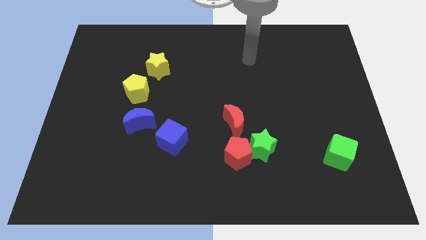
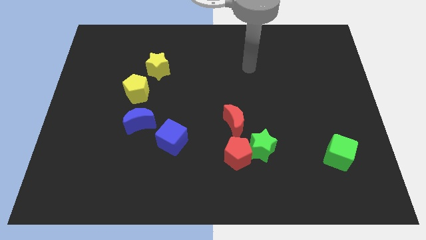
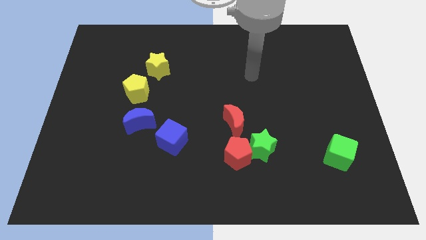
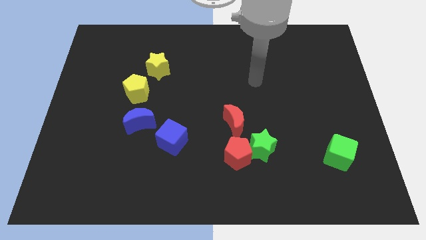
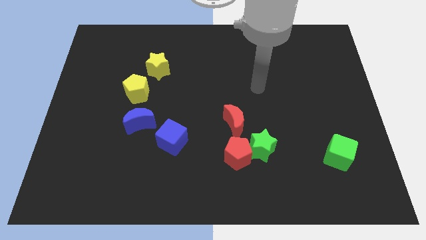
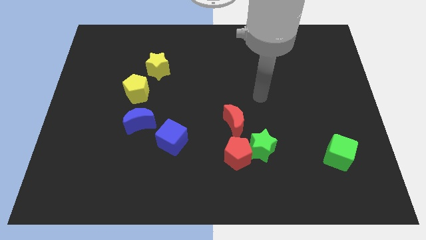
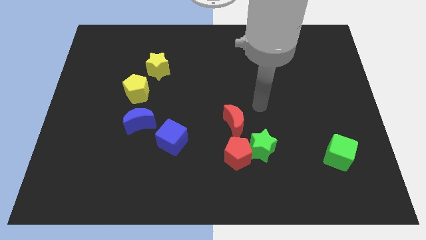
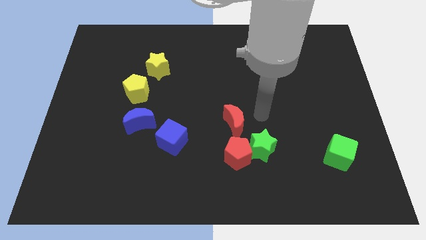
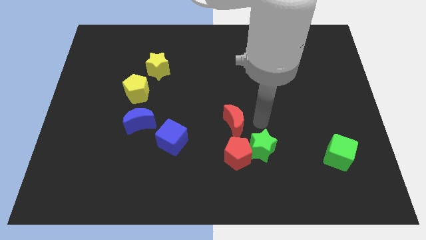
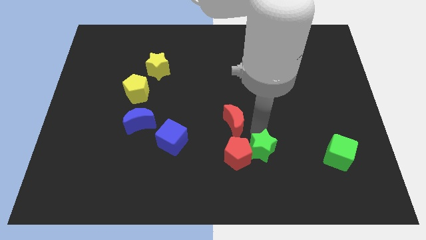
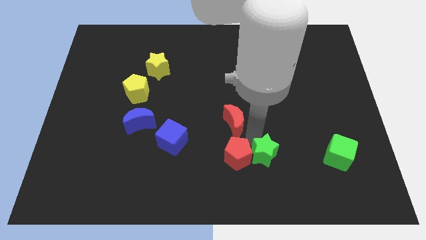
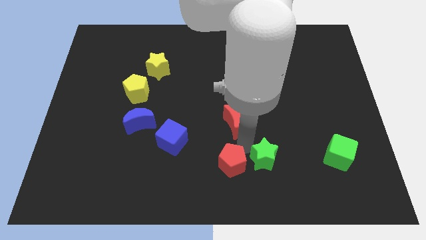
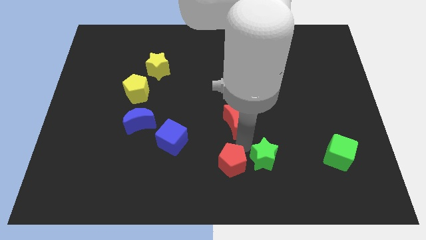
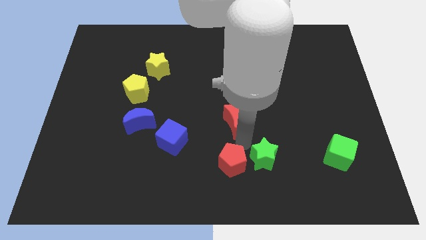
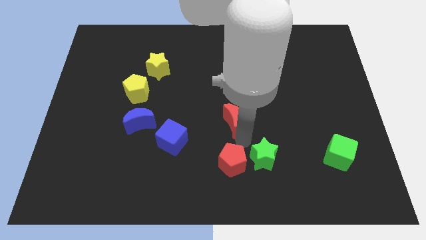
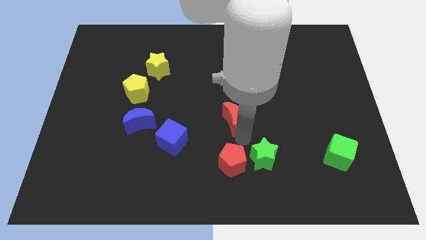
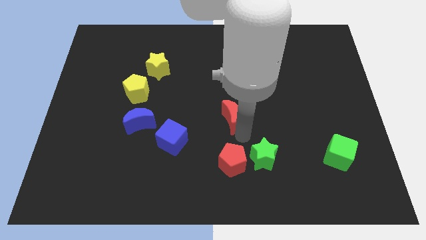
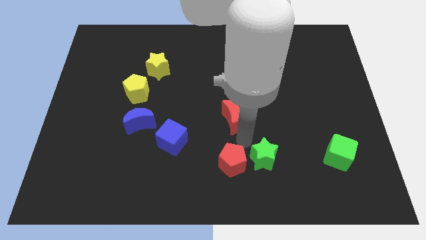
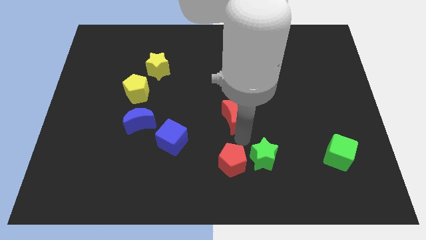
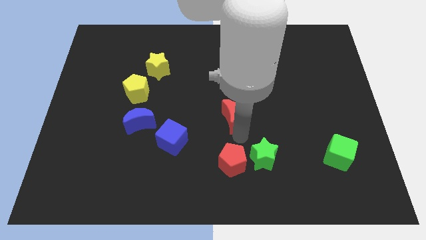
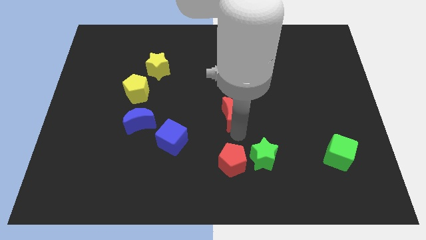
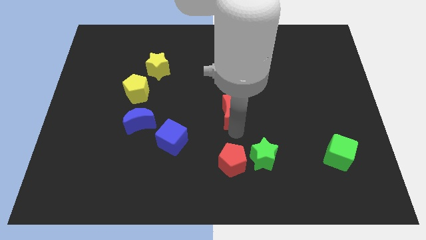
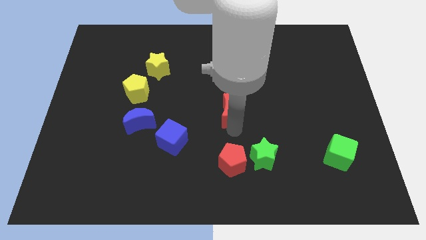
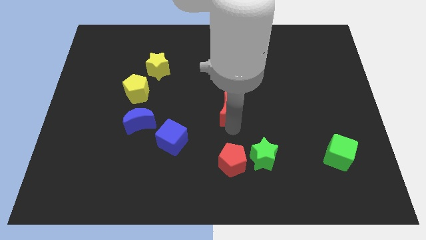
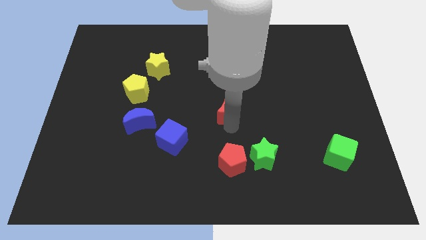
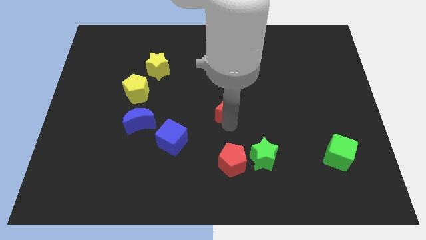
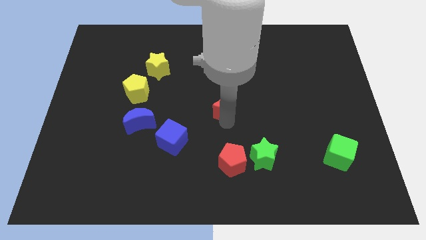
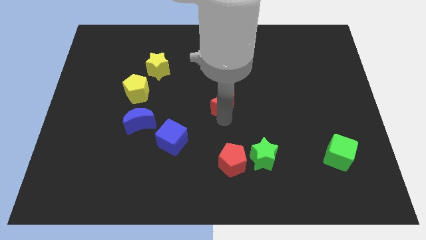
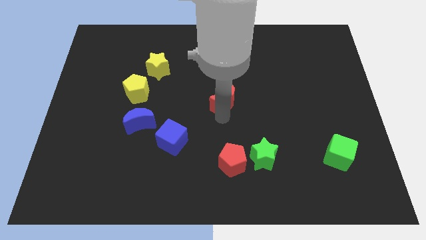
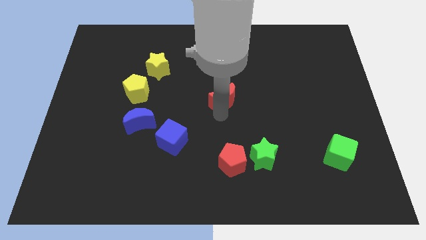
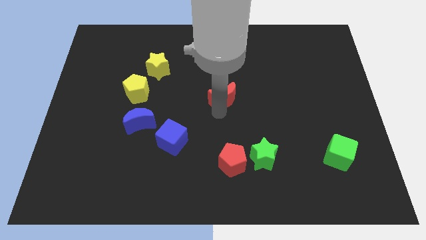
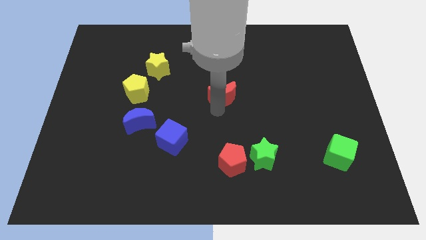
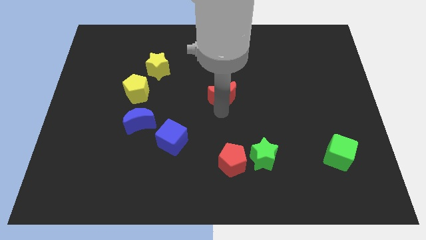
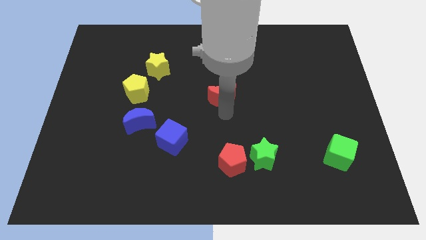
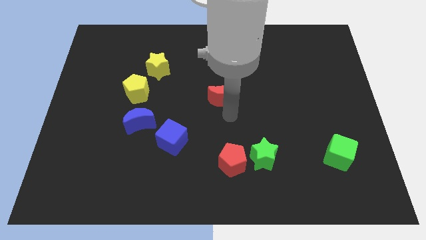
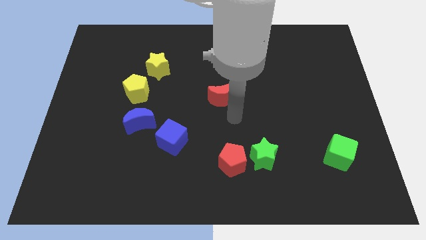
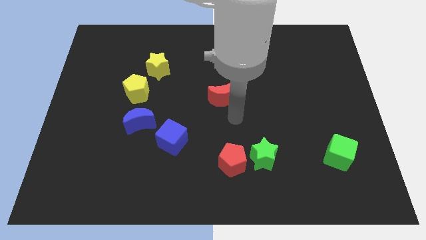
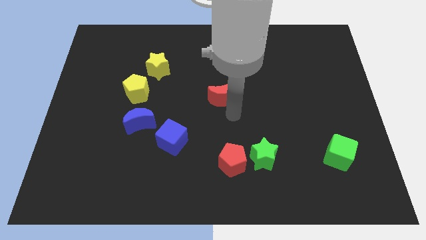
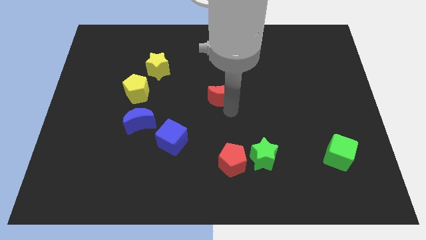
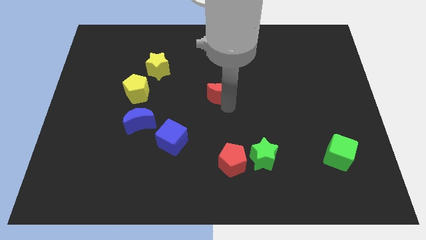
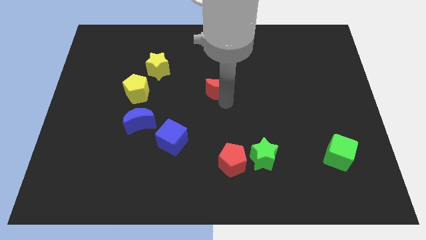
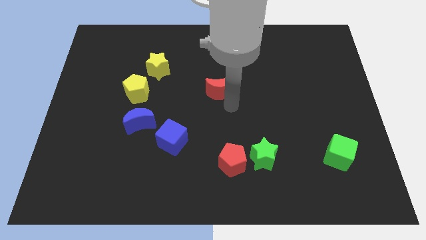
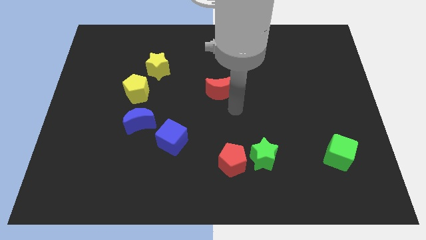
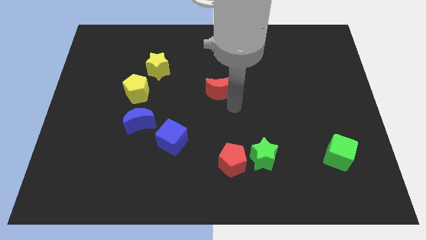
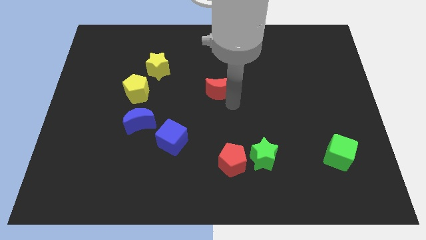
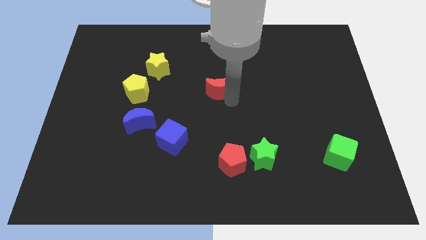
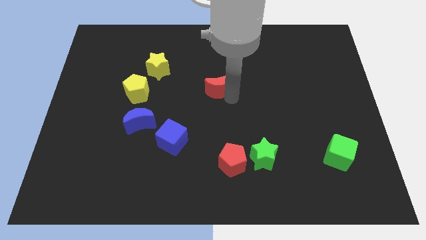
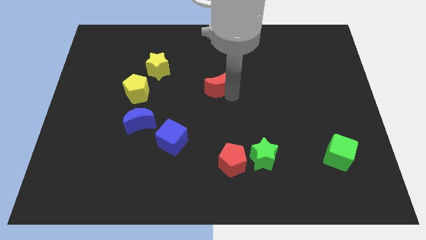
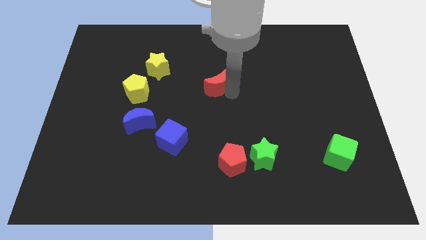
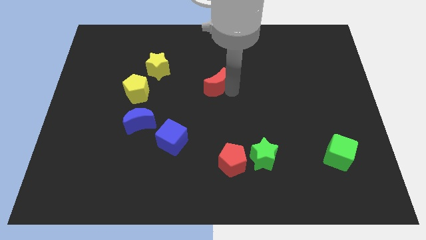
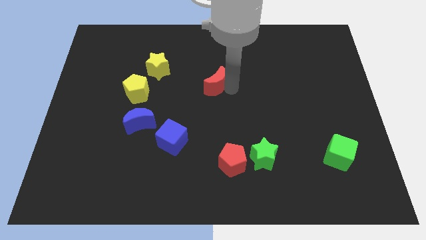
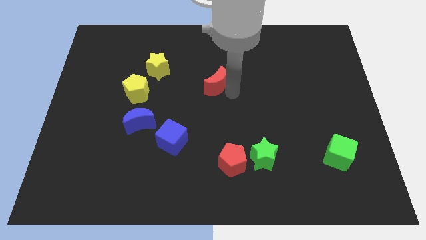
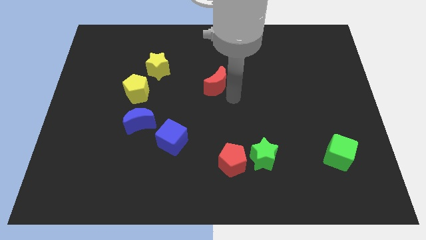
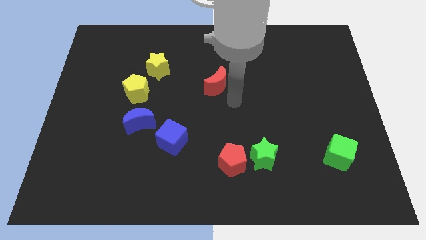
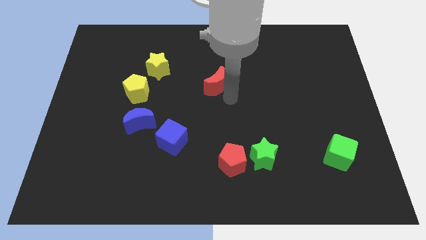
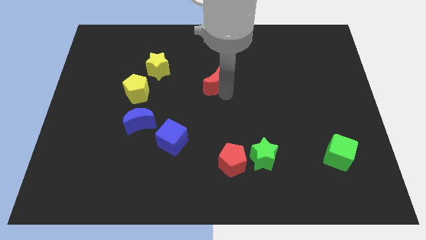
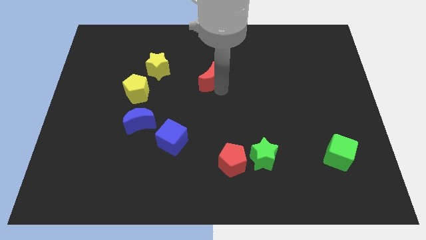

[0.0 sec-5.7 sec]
move the red moon right of the yellow star

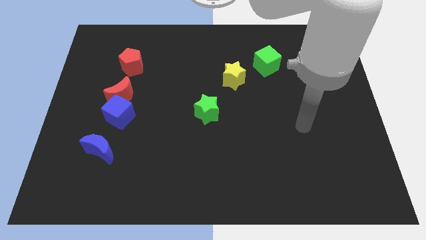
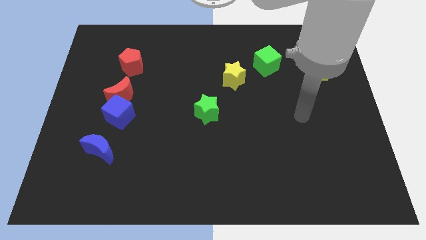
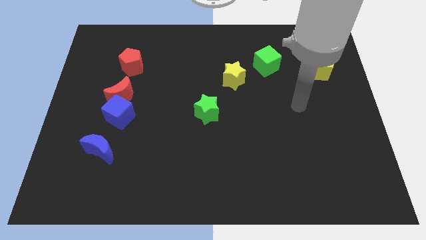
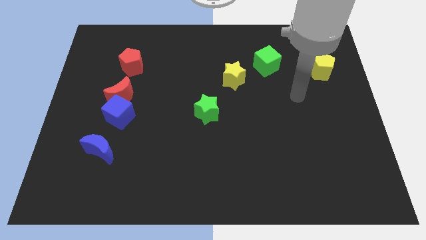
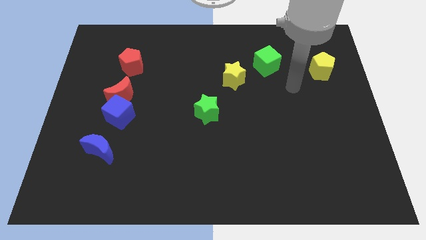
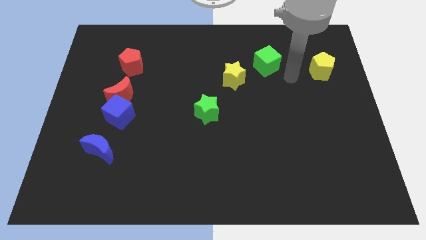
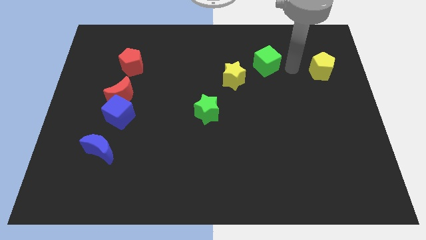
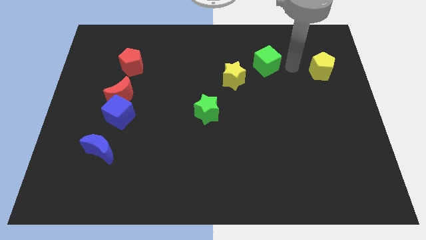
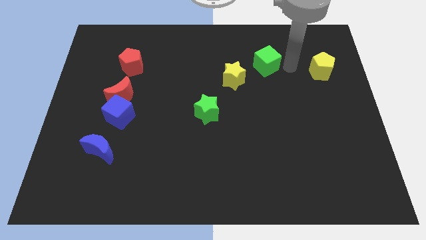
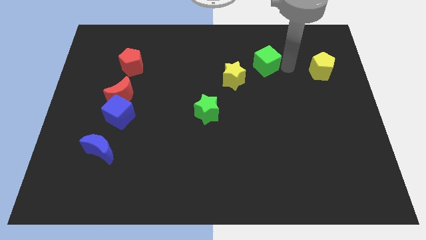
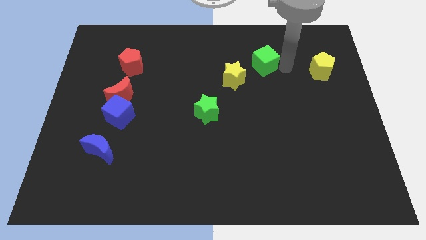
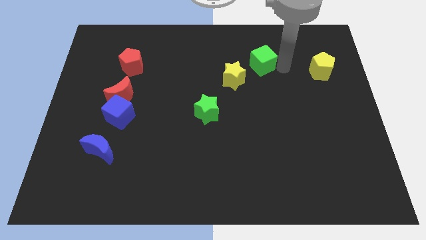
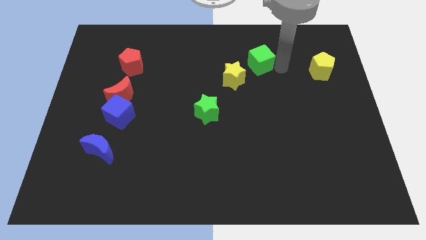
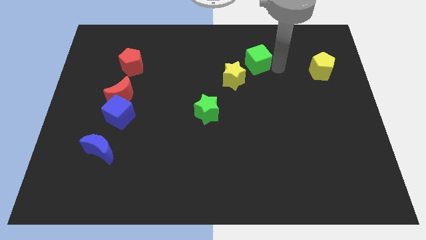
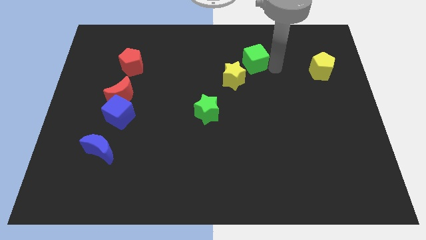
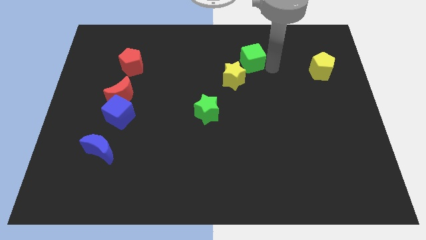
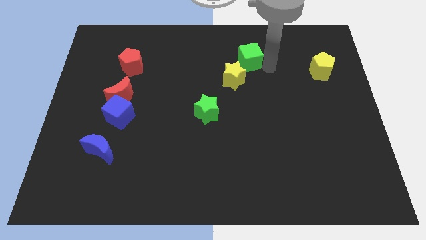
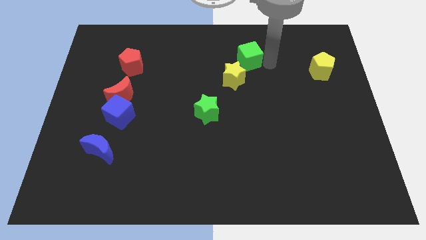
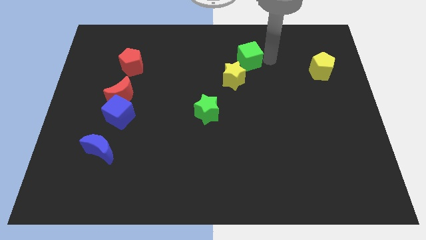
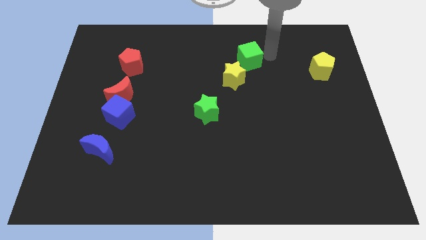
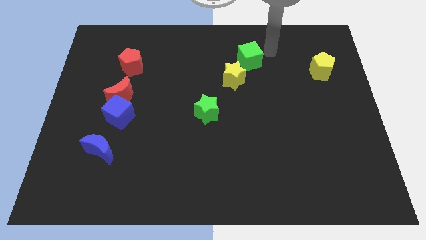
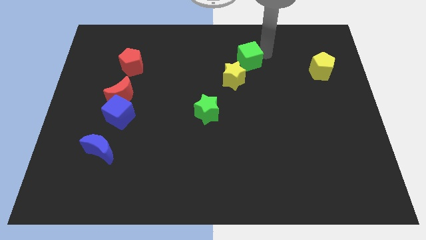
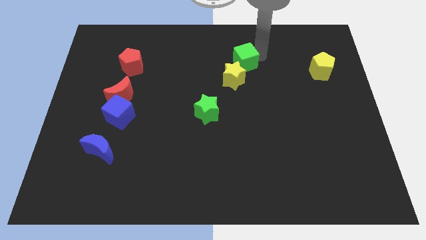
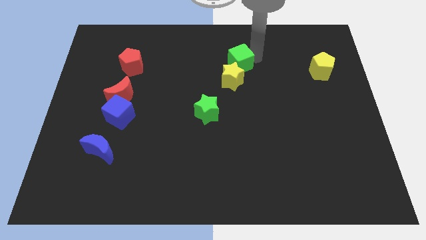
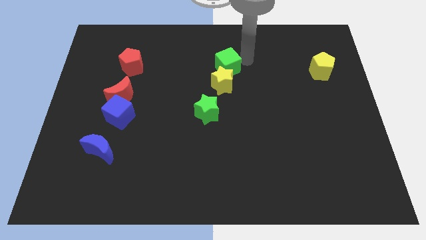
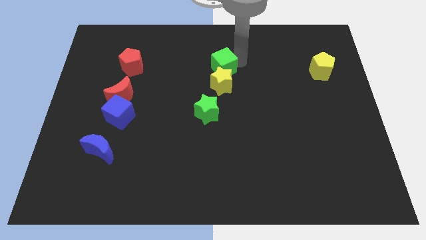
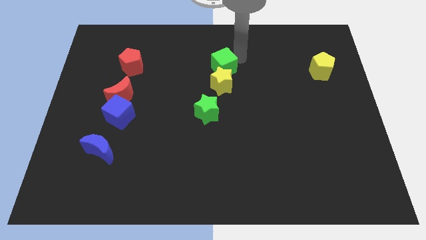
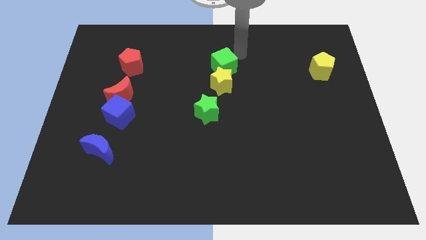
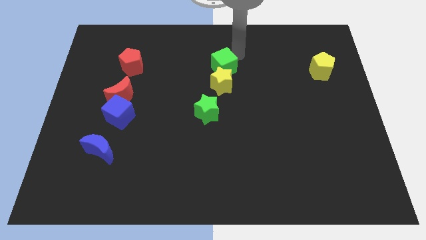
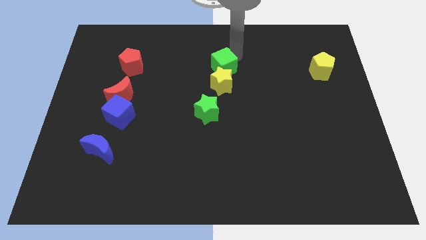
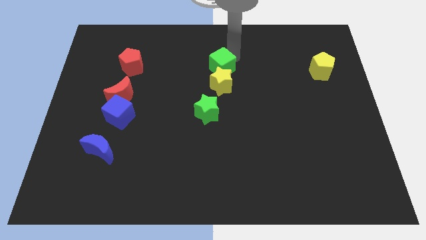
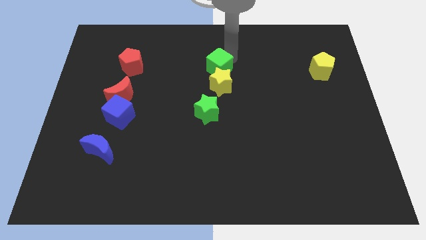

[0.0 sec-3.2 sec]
move the green cube to the top side of the green star
